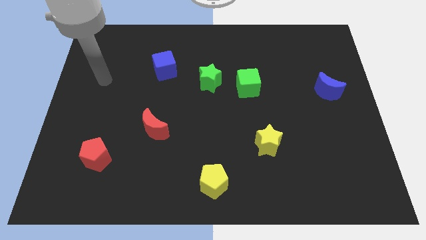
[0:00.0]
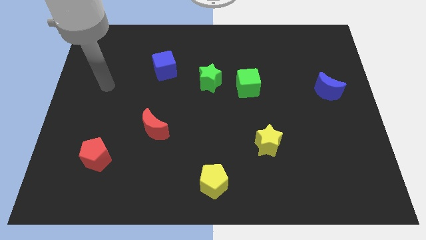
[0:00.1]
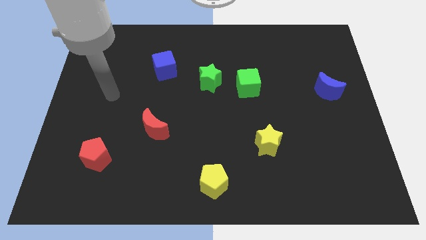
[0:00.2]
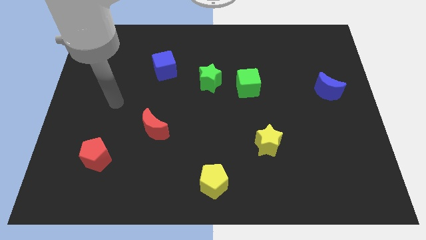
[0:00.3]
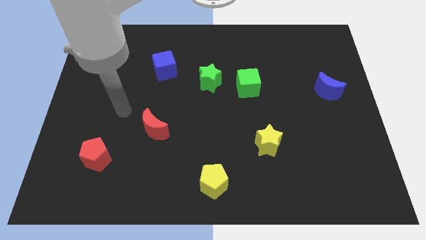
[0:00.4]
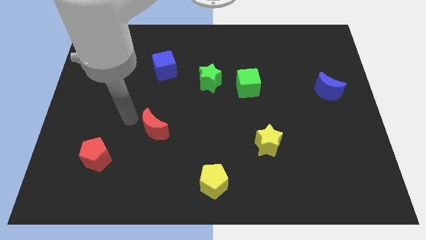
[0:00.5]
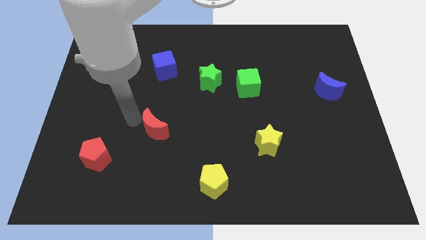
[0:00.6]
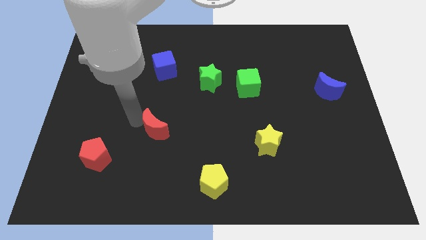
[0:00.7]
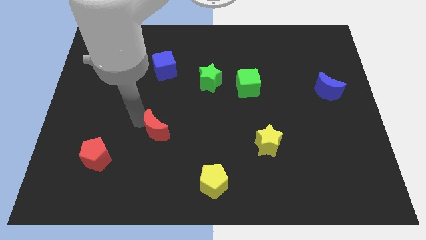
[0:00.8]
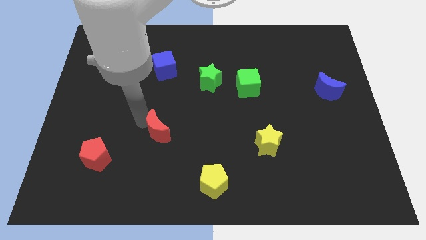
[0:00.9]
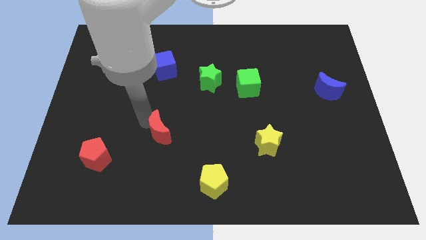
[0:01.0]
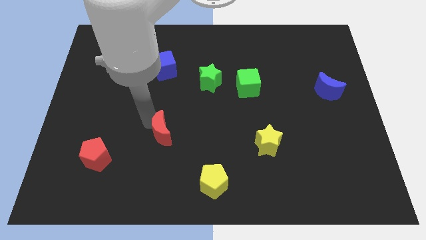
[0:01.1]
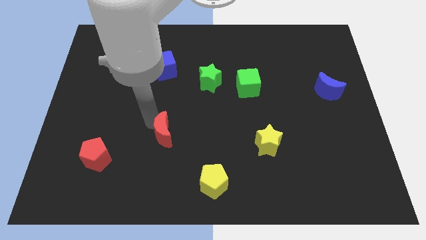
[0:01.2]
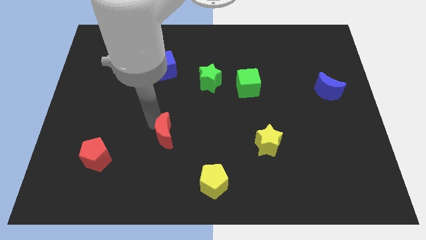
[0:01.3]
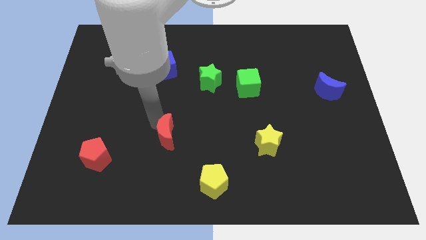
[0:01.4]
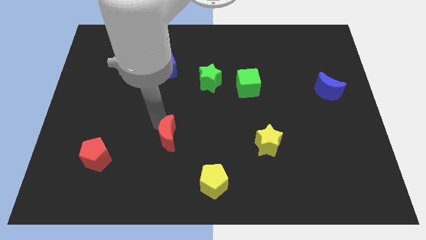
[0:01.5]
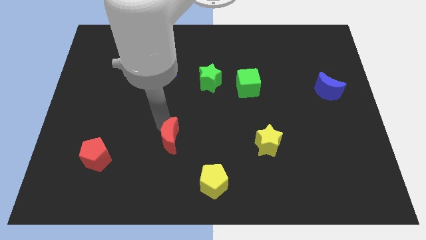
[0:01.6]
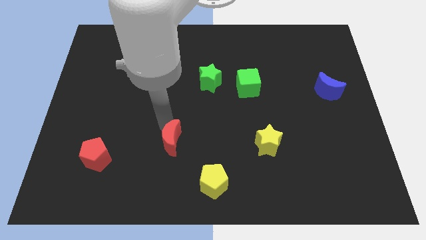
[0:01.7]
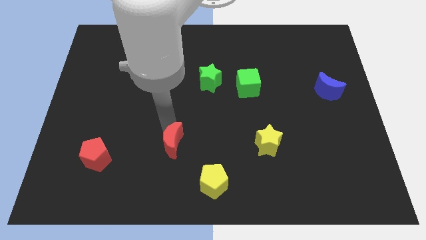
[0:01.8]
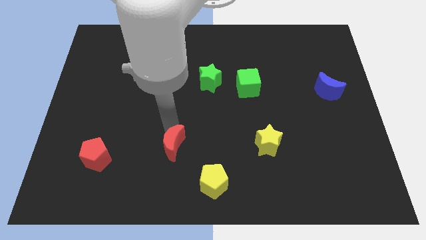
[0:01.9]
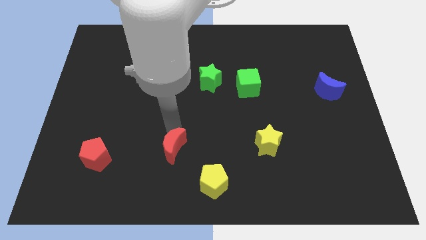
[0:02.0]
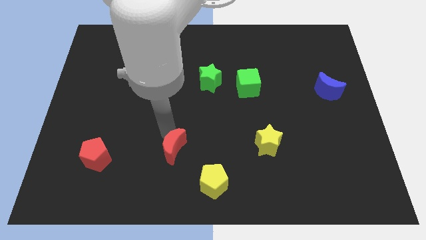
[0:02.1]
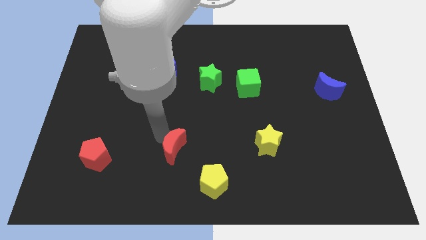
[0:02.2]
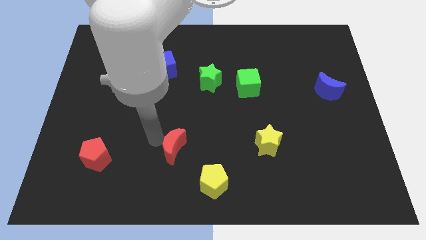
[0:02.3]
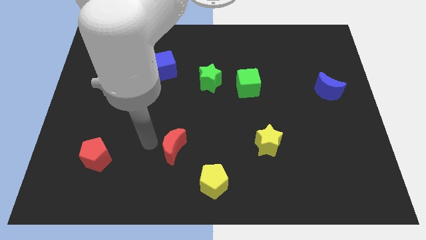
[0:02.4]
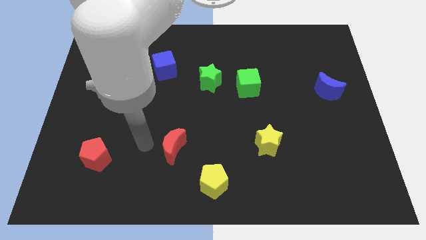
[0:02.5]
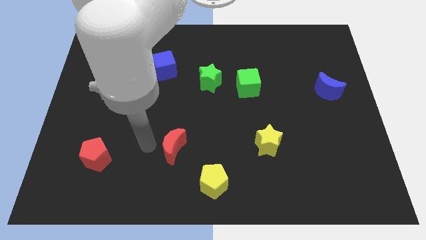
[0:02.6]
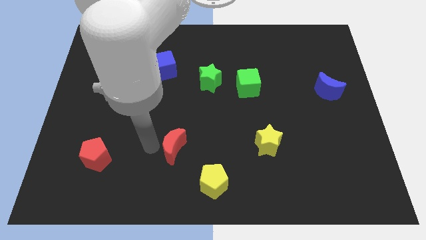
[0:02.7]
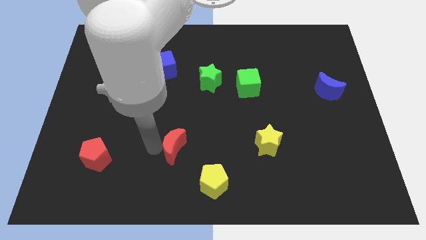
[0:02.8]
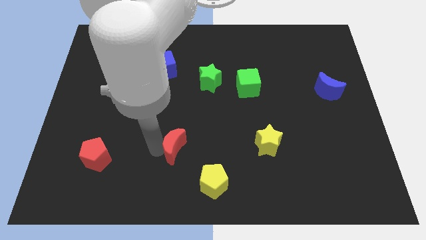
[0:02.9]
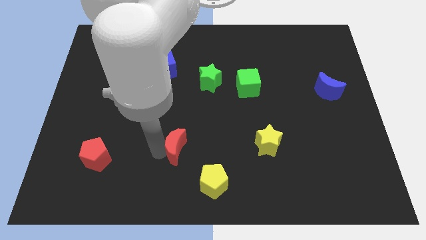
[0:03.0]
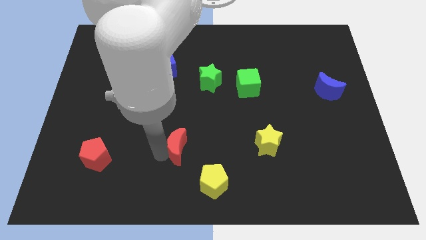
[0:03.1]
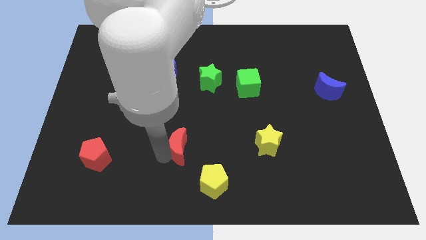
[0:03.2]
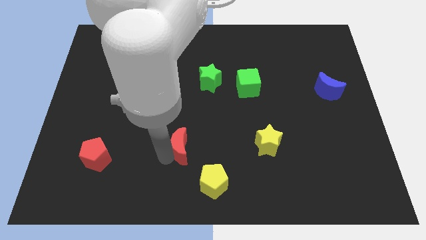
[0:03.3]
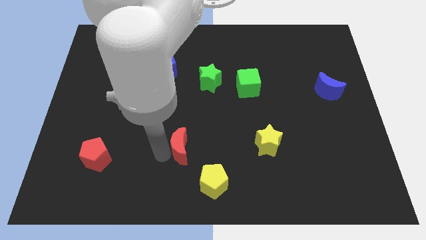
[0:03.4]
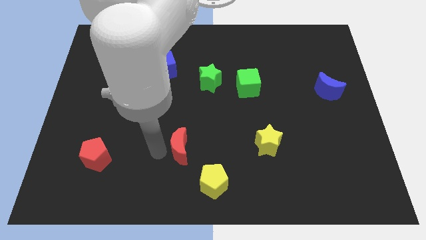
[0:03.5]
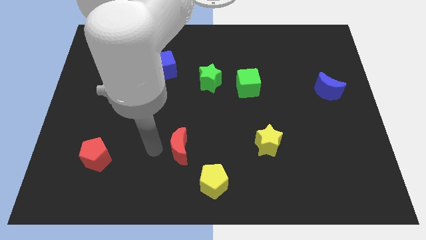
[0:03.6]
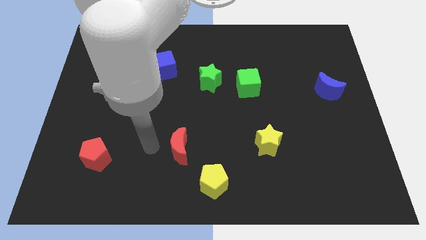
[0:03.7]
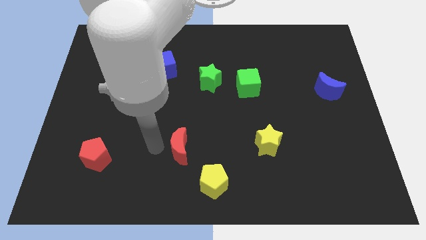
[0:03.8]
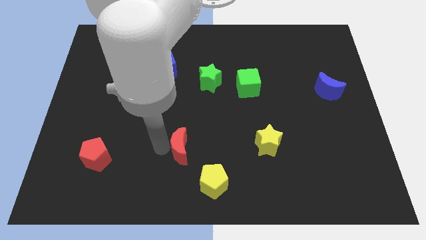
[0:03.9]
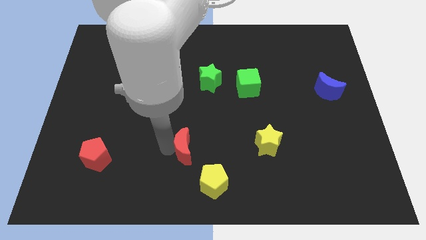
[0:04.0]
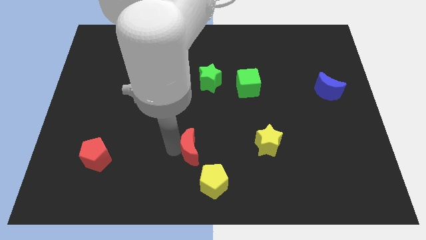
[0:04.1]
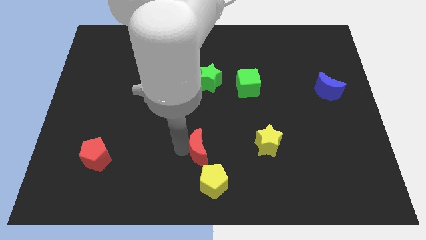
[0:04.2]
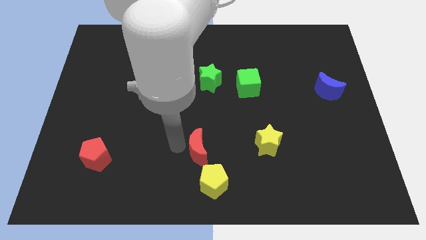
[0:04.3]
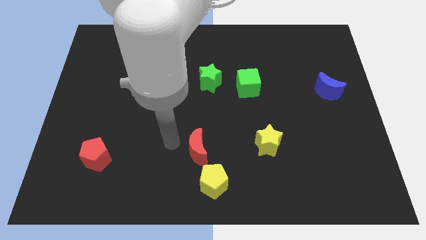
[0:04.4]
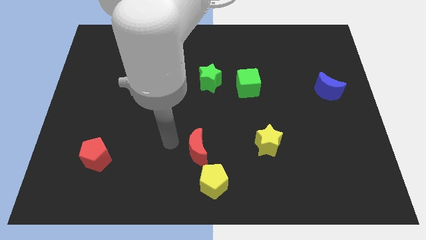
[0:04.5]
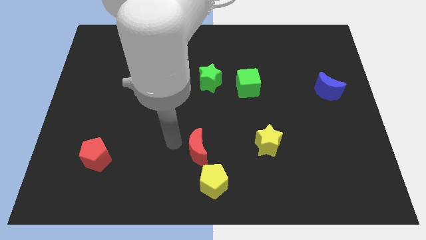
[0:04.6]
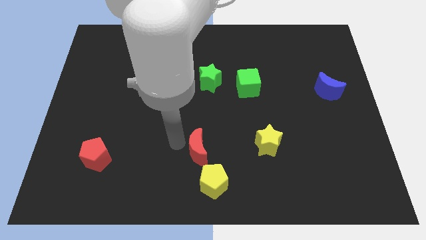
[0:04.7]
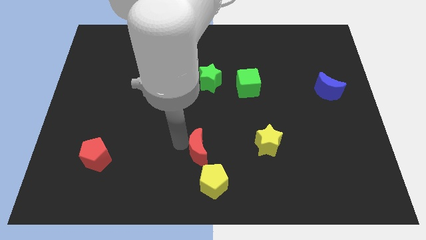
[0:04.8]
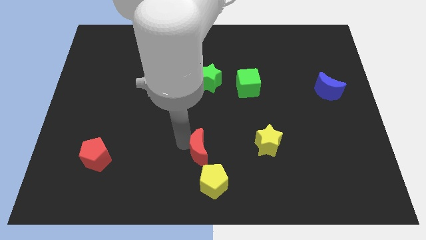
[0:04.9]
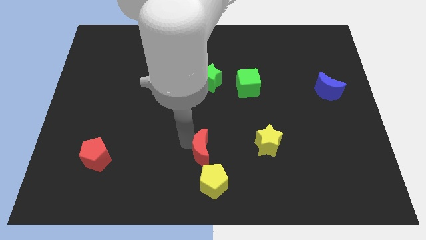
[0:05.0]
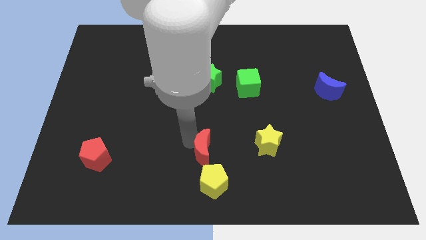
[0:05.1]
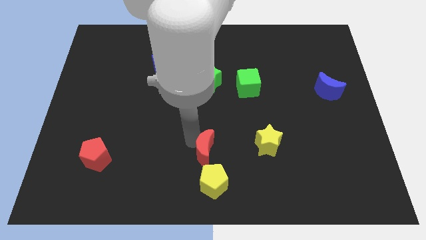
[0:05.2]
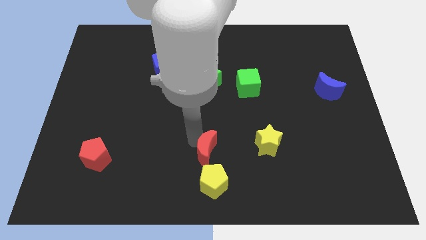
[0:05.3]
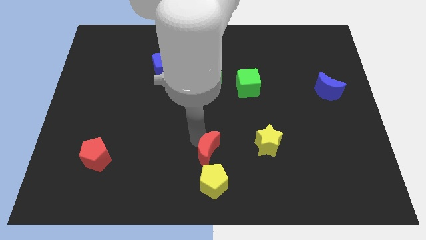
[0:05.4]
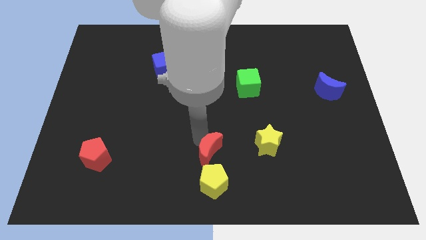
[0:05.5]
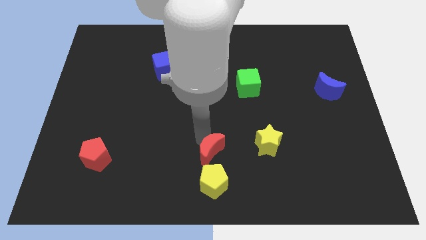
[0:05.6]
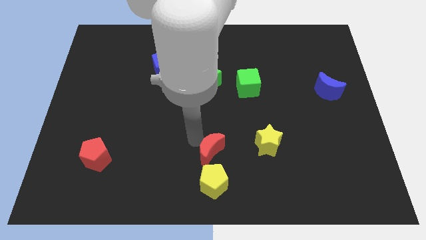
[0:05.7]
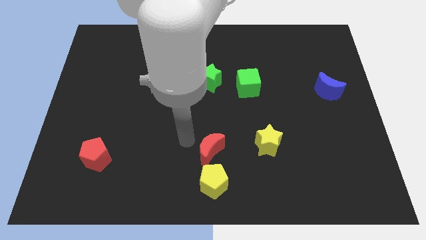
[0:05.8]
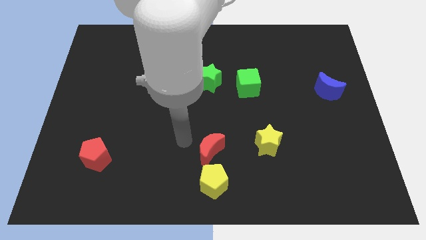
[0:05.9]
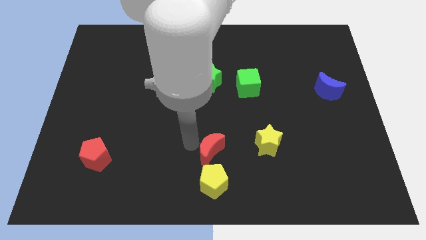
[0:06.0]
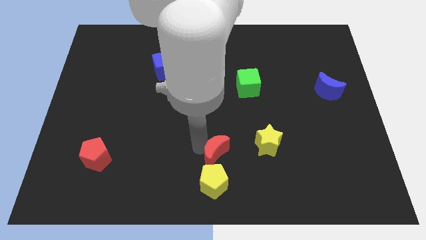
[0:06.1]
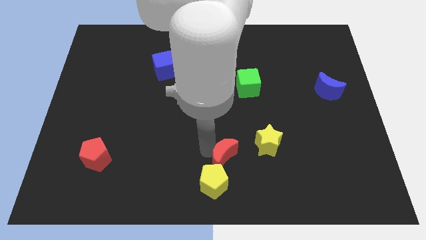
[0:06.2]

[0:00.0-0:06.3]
slide the red moon diagonally down and to the left of the yellow star

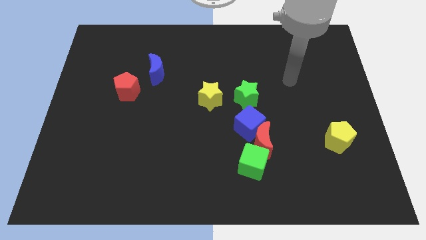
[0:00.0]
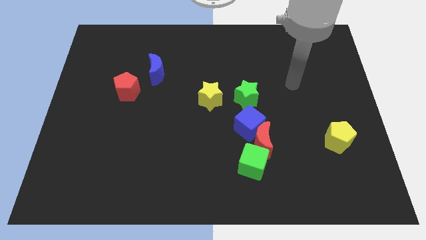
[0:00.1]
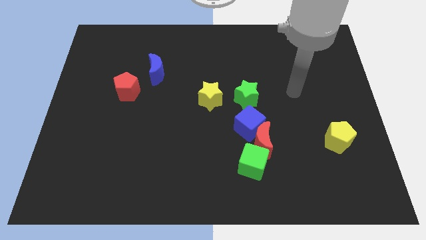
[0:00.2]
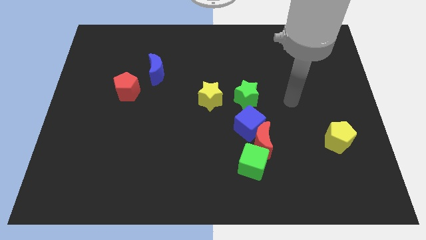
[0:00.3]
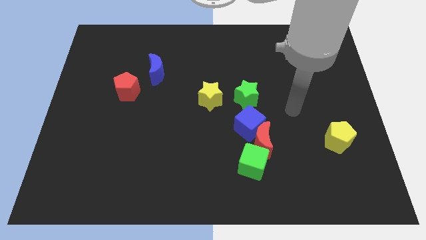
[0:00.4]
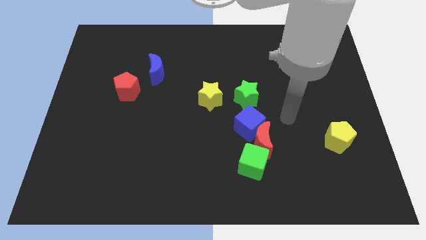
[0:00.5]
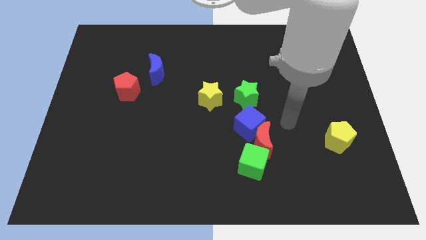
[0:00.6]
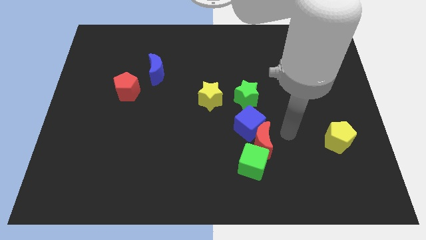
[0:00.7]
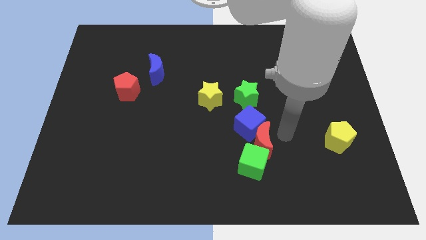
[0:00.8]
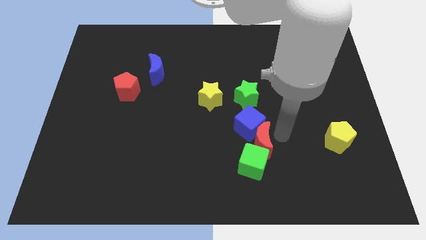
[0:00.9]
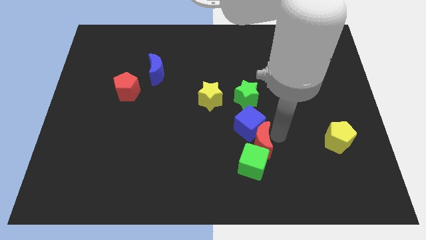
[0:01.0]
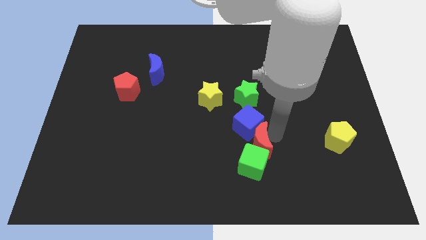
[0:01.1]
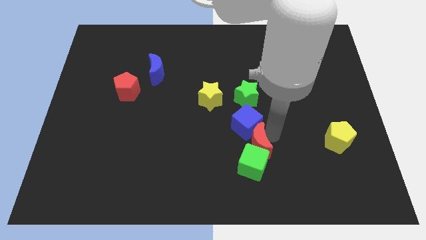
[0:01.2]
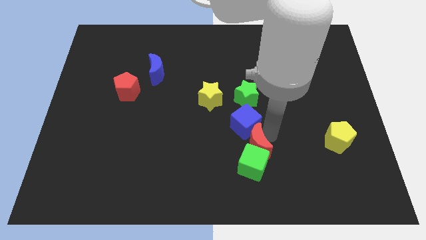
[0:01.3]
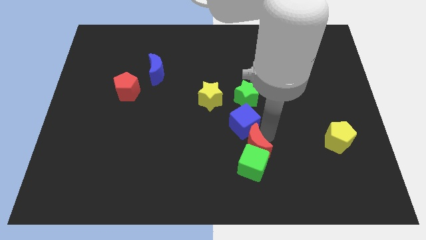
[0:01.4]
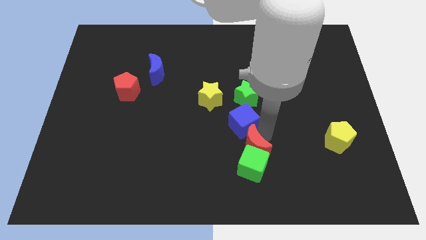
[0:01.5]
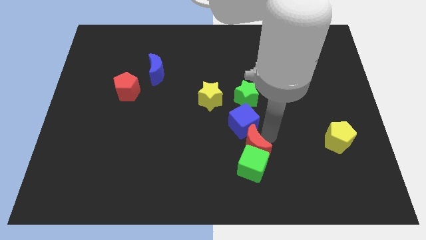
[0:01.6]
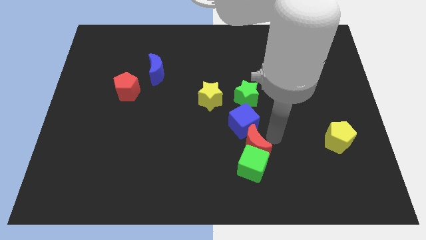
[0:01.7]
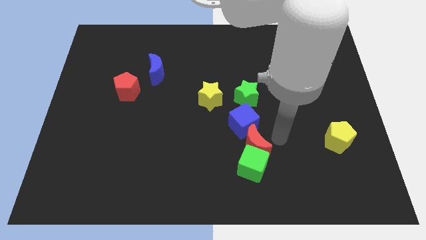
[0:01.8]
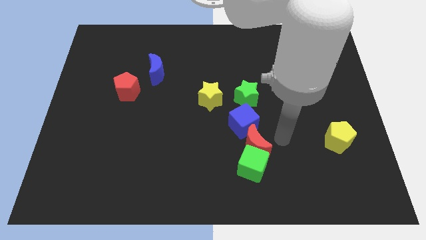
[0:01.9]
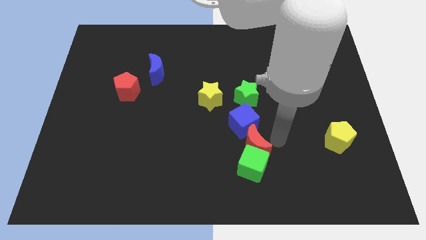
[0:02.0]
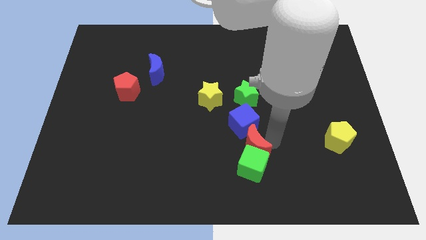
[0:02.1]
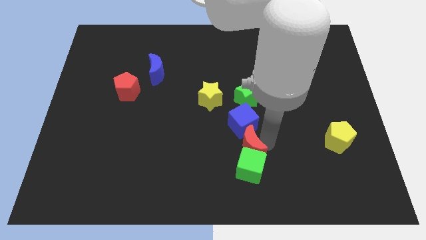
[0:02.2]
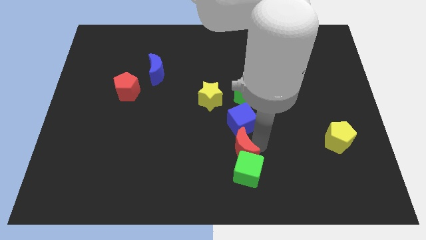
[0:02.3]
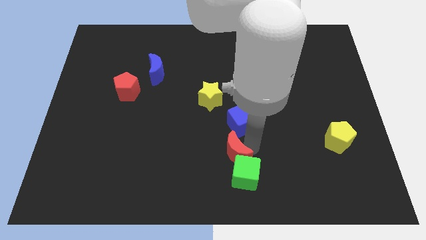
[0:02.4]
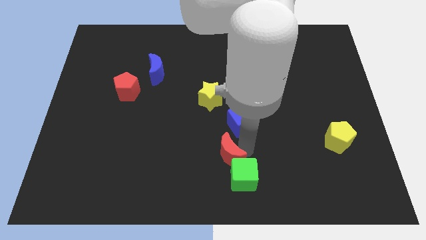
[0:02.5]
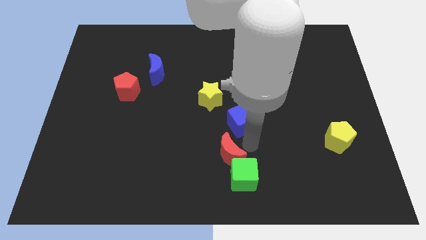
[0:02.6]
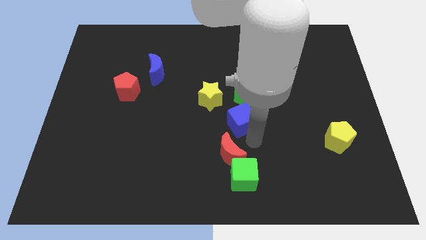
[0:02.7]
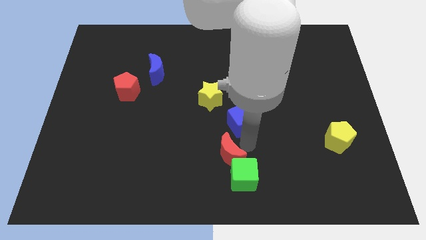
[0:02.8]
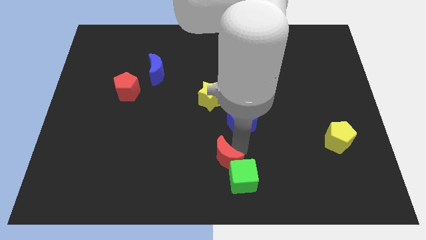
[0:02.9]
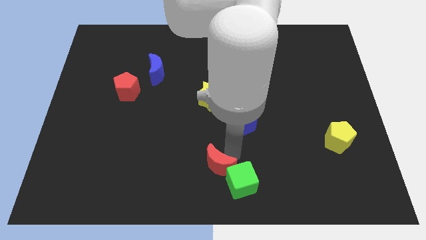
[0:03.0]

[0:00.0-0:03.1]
push the red moon to the left side of the green cube
